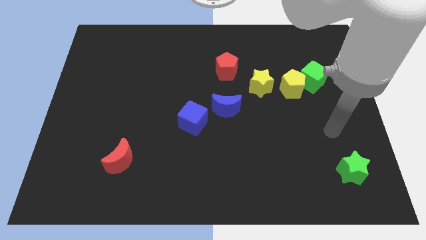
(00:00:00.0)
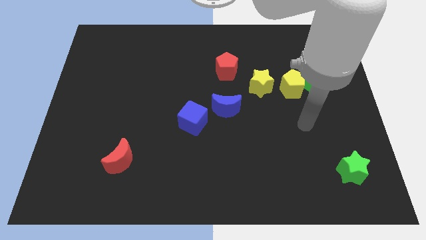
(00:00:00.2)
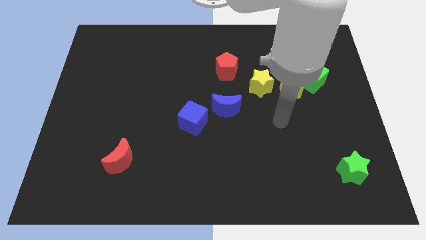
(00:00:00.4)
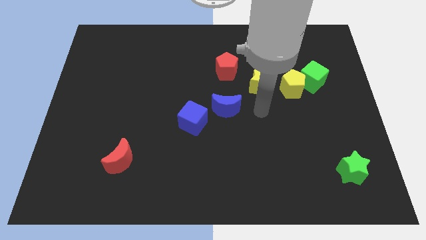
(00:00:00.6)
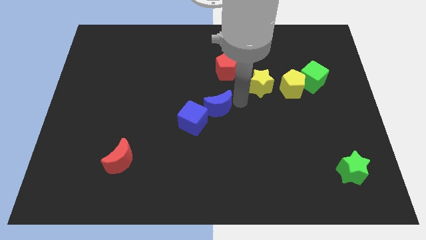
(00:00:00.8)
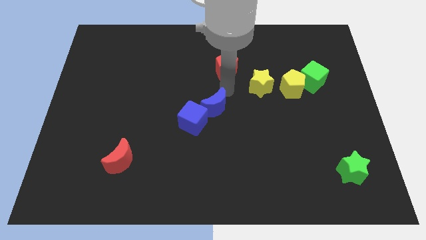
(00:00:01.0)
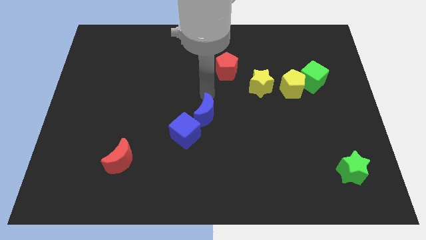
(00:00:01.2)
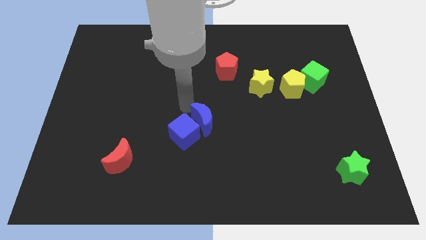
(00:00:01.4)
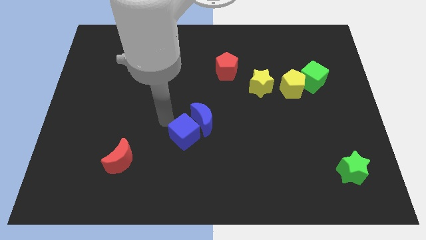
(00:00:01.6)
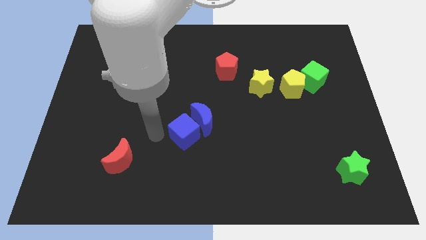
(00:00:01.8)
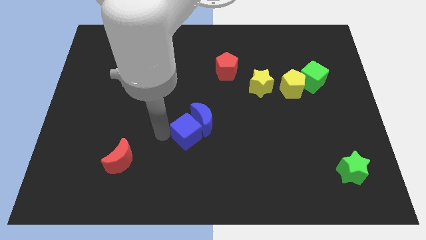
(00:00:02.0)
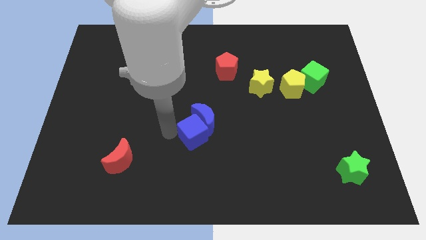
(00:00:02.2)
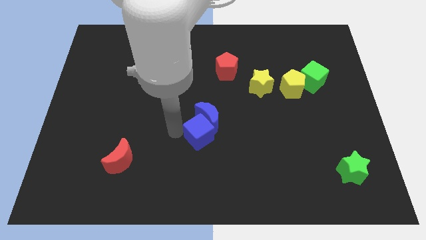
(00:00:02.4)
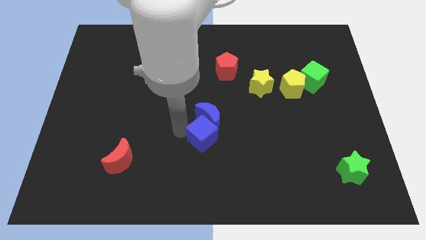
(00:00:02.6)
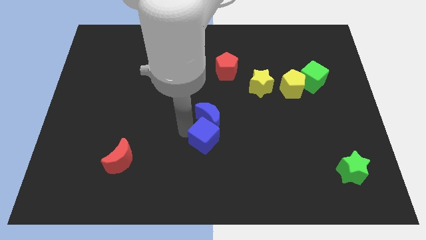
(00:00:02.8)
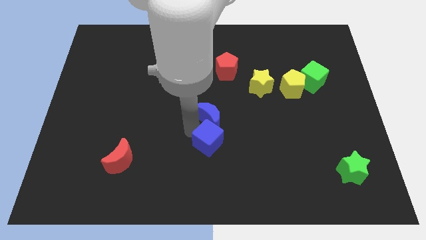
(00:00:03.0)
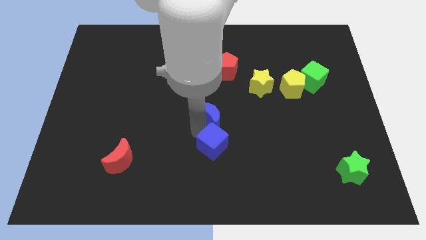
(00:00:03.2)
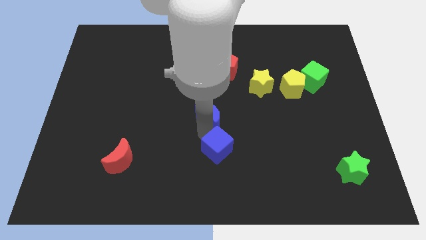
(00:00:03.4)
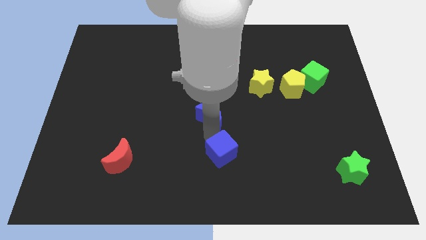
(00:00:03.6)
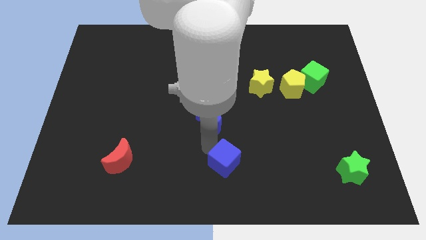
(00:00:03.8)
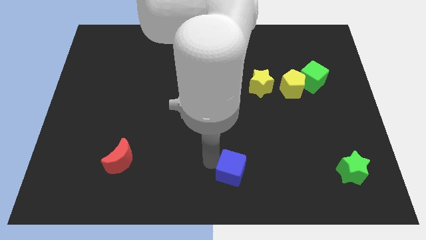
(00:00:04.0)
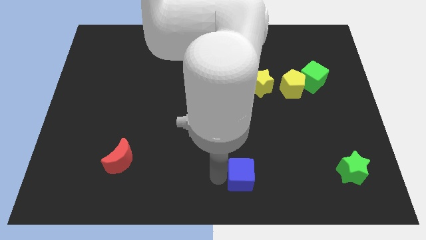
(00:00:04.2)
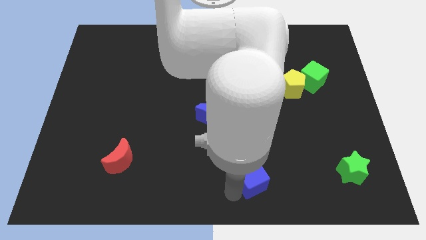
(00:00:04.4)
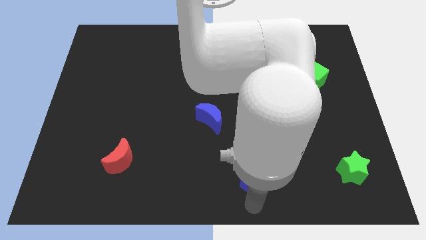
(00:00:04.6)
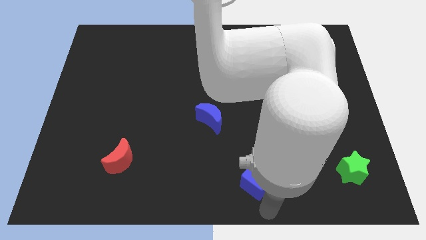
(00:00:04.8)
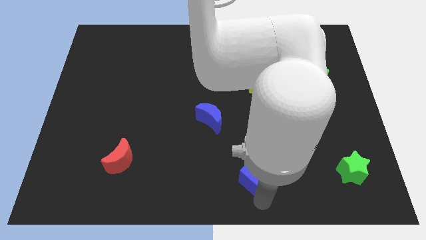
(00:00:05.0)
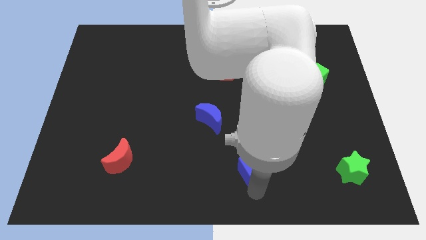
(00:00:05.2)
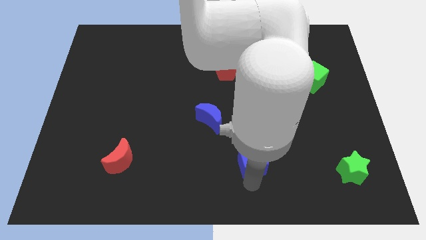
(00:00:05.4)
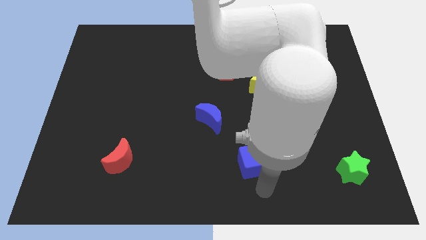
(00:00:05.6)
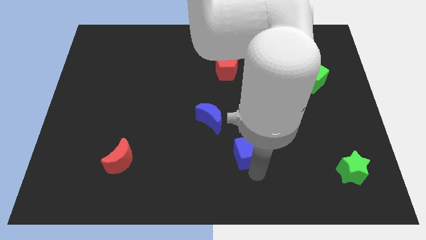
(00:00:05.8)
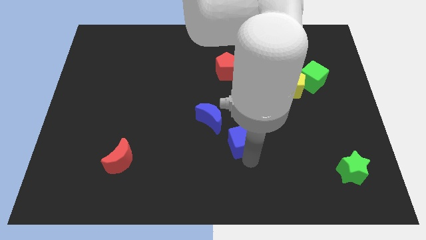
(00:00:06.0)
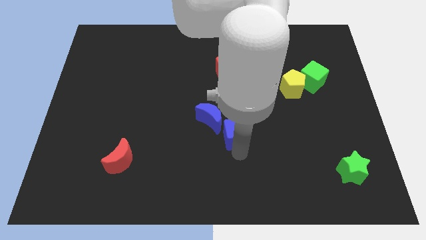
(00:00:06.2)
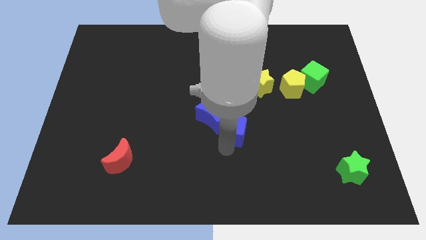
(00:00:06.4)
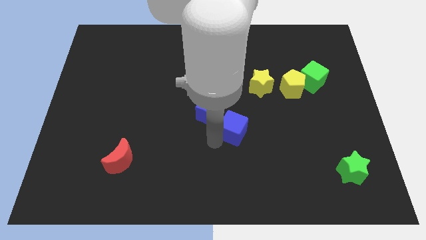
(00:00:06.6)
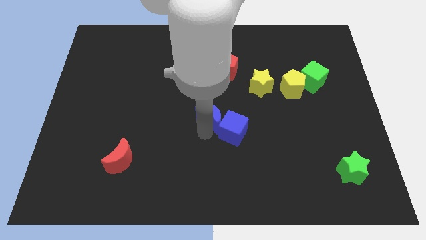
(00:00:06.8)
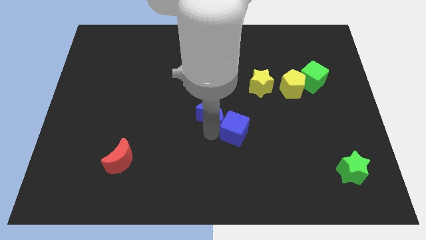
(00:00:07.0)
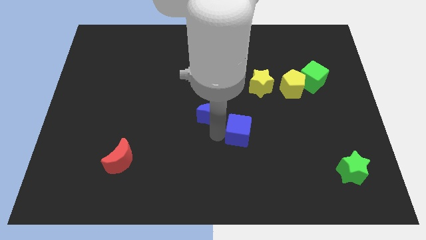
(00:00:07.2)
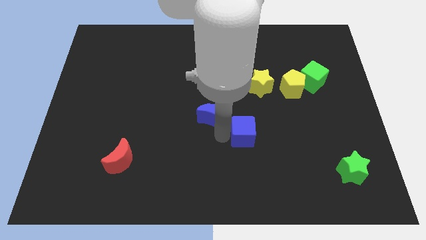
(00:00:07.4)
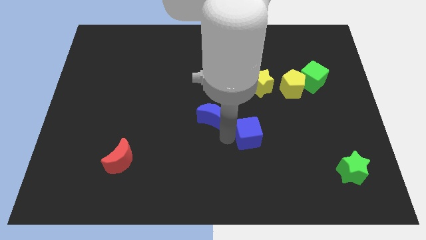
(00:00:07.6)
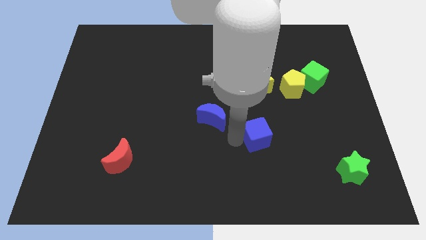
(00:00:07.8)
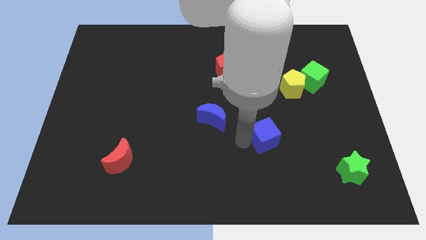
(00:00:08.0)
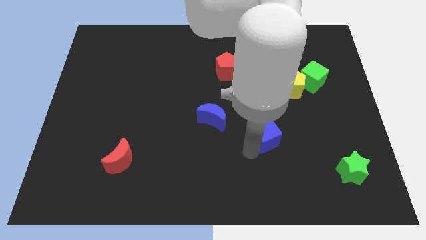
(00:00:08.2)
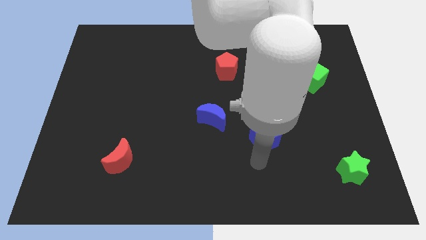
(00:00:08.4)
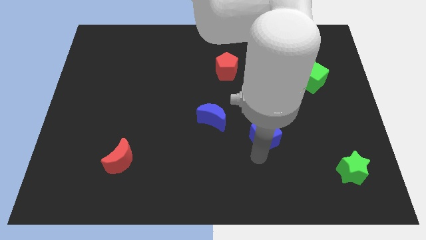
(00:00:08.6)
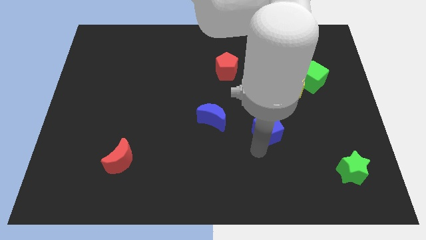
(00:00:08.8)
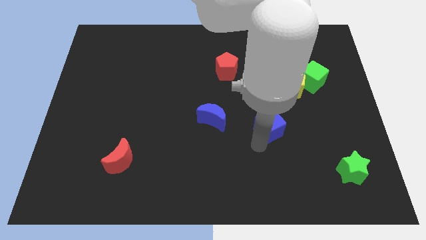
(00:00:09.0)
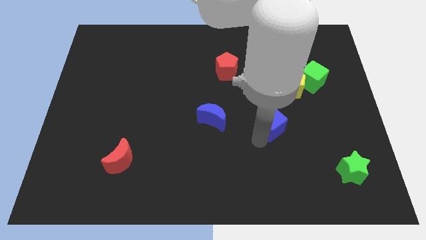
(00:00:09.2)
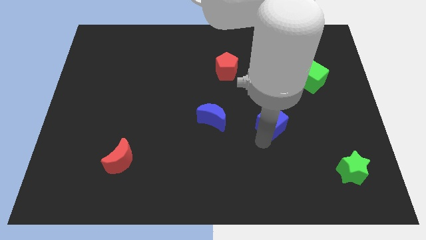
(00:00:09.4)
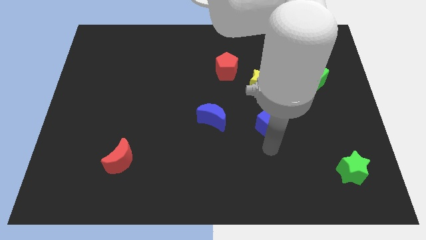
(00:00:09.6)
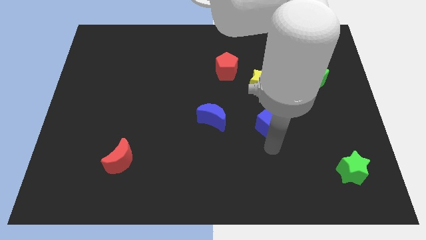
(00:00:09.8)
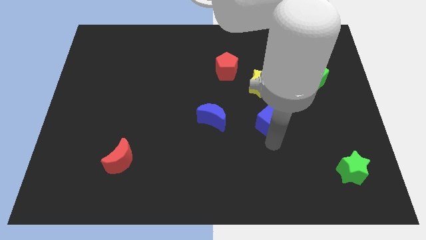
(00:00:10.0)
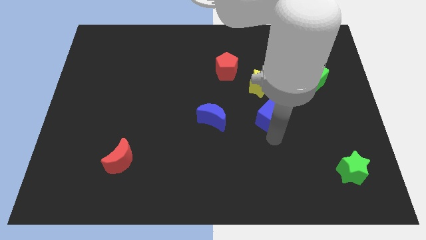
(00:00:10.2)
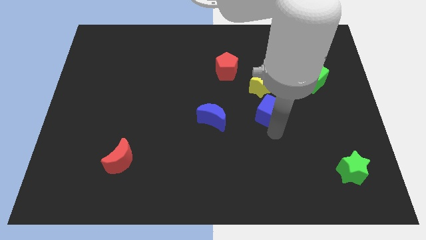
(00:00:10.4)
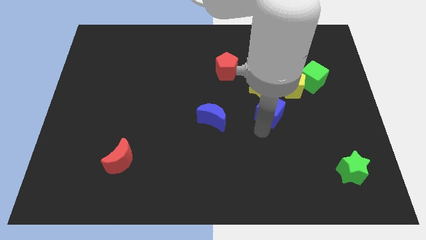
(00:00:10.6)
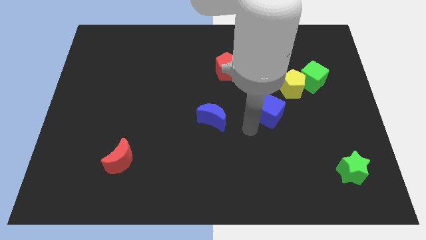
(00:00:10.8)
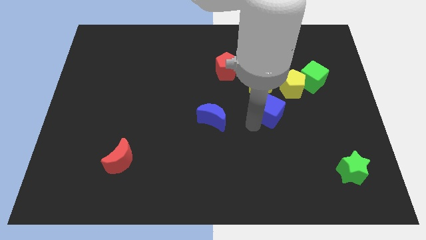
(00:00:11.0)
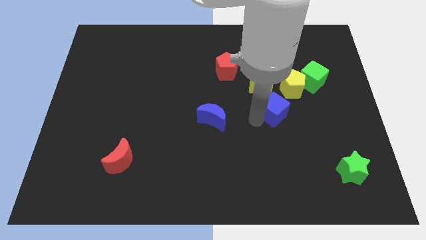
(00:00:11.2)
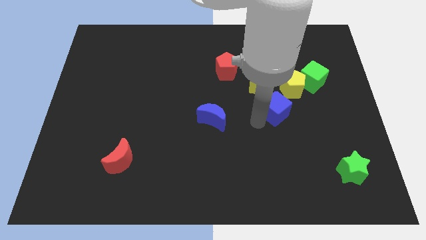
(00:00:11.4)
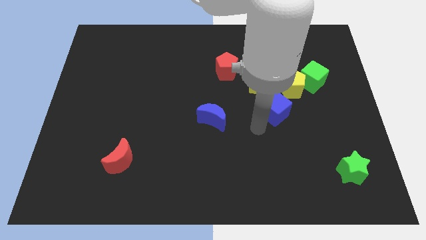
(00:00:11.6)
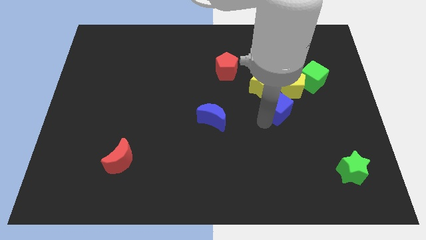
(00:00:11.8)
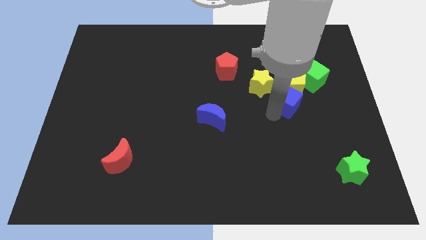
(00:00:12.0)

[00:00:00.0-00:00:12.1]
push the blue cube close to the yellow pentagon

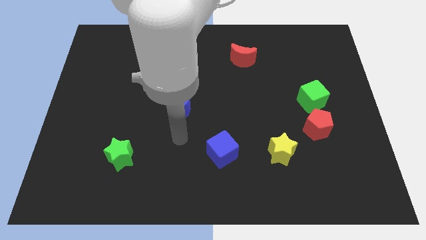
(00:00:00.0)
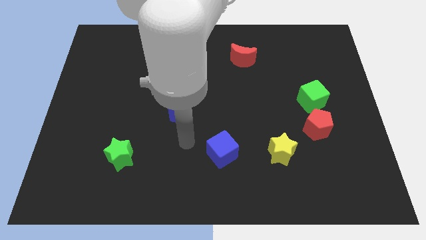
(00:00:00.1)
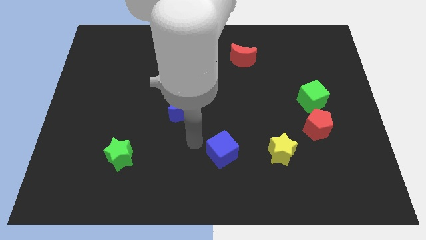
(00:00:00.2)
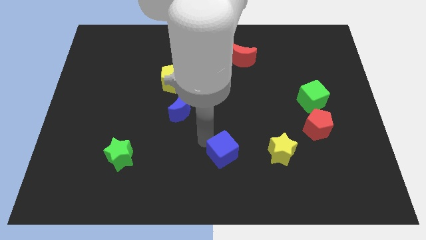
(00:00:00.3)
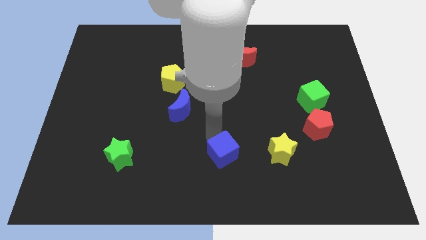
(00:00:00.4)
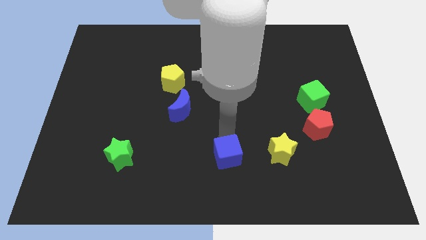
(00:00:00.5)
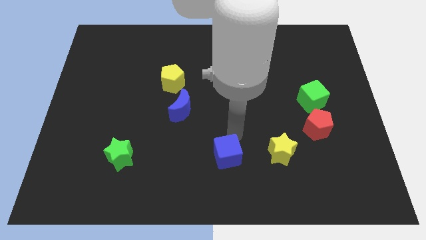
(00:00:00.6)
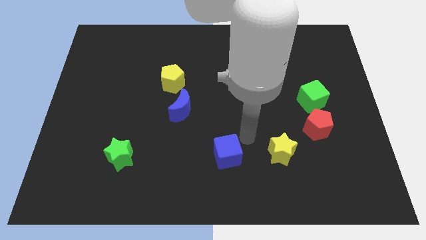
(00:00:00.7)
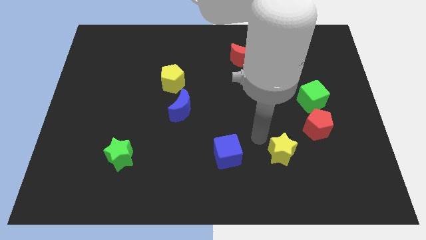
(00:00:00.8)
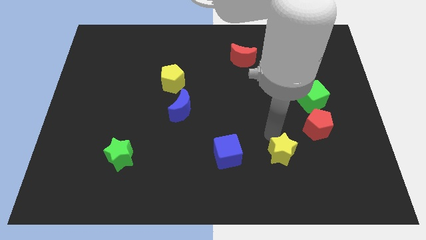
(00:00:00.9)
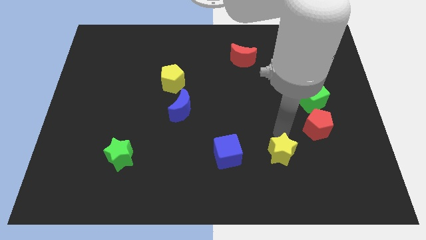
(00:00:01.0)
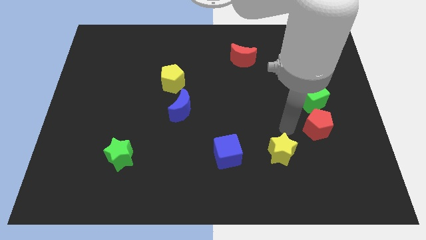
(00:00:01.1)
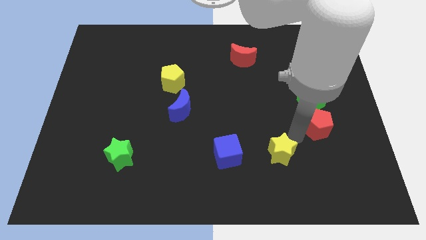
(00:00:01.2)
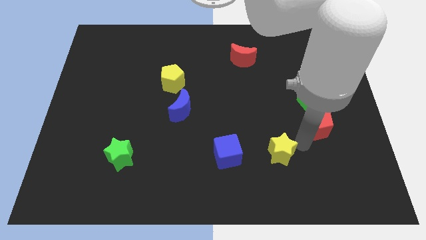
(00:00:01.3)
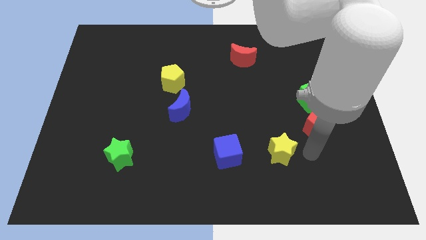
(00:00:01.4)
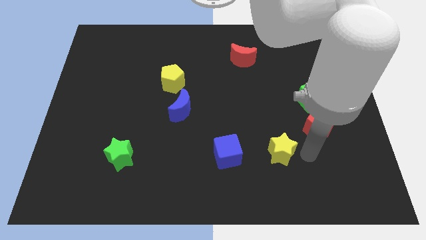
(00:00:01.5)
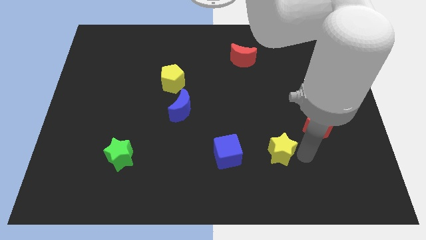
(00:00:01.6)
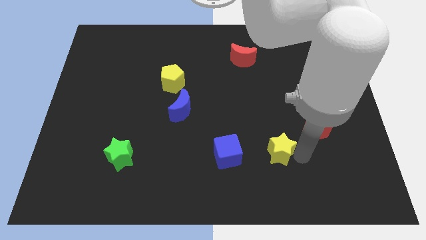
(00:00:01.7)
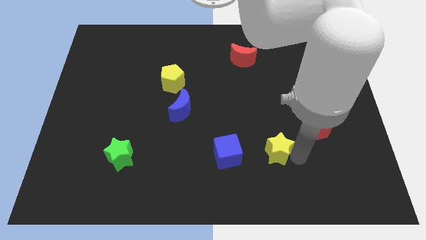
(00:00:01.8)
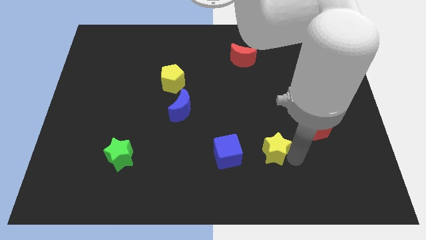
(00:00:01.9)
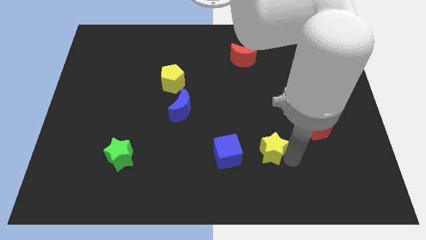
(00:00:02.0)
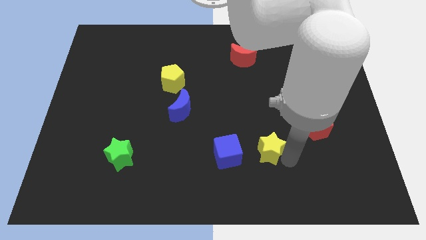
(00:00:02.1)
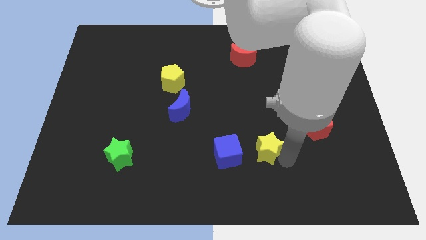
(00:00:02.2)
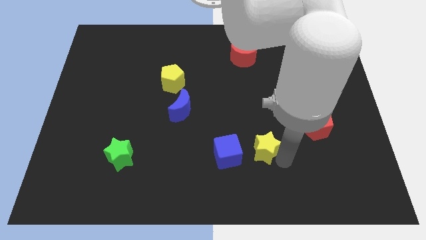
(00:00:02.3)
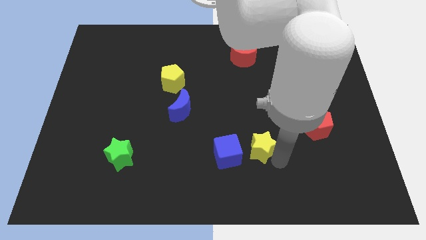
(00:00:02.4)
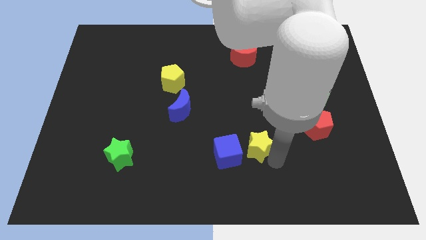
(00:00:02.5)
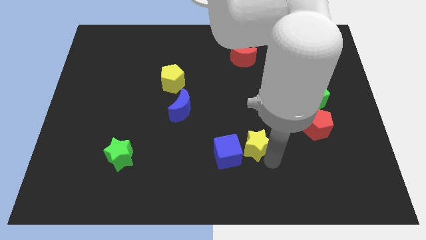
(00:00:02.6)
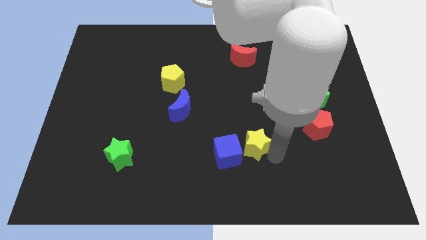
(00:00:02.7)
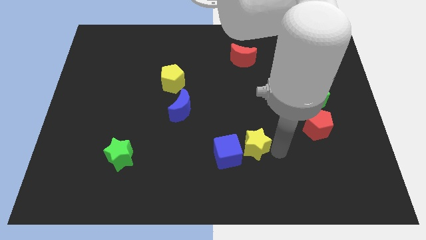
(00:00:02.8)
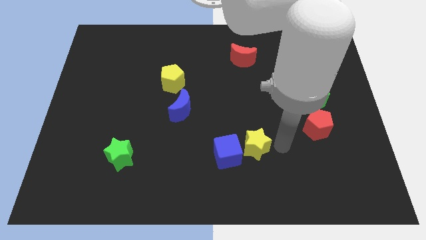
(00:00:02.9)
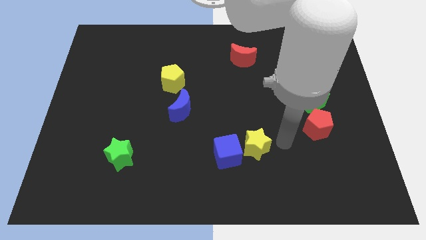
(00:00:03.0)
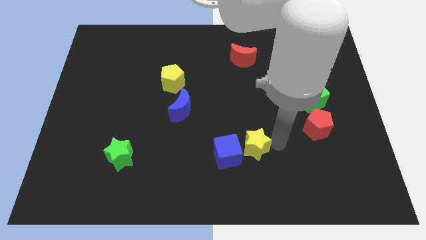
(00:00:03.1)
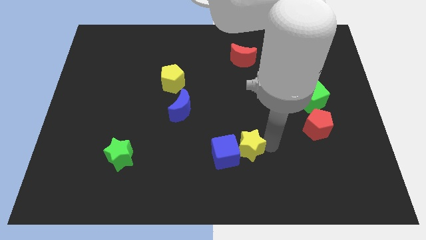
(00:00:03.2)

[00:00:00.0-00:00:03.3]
push the yellow star towards the blue cube
